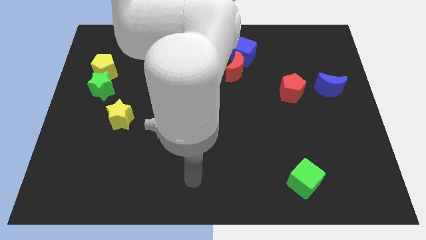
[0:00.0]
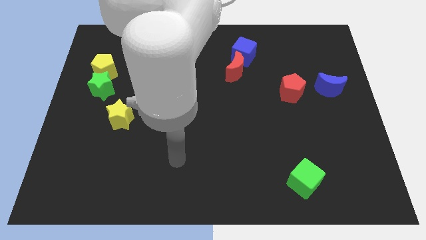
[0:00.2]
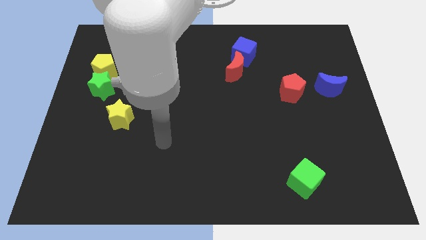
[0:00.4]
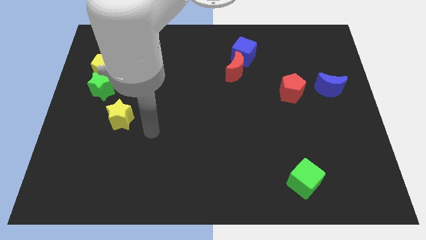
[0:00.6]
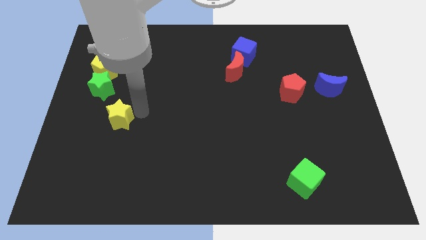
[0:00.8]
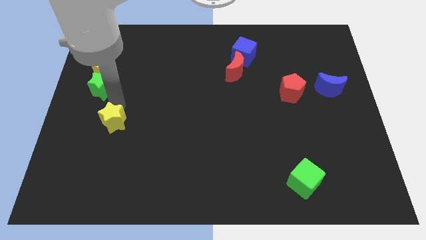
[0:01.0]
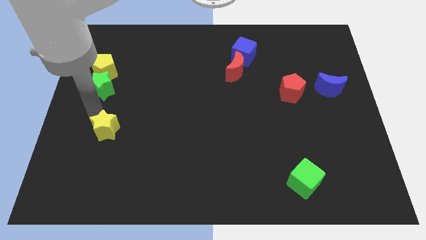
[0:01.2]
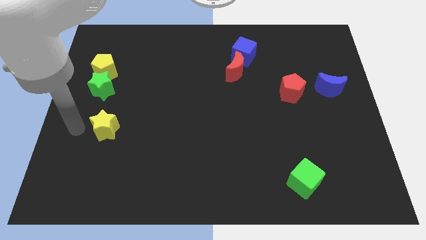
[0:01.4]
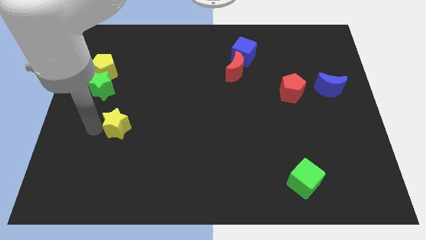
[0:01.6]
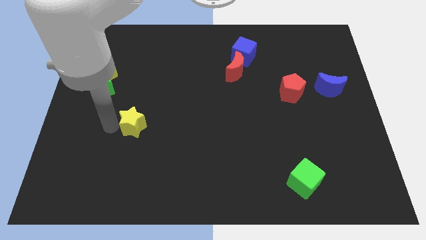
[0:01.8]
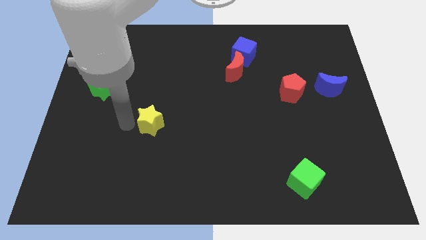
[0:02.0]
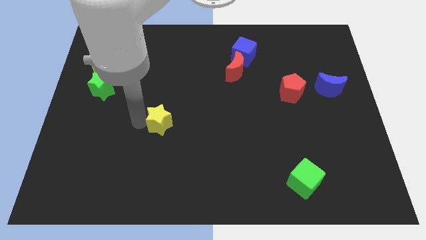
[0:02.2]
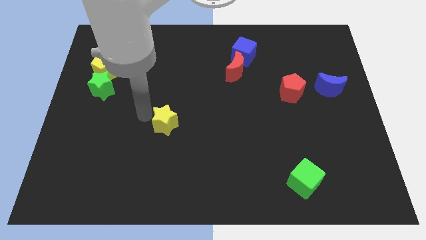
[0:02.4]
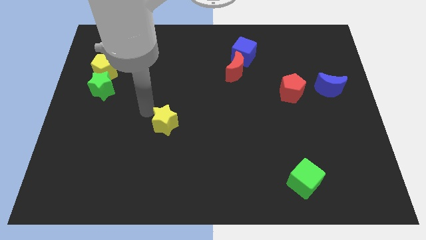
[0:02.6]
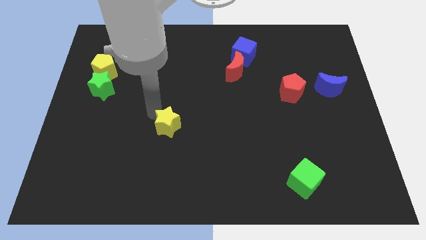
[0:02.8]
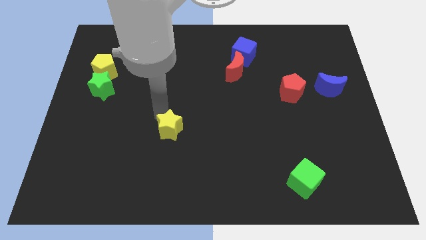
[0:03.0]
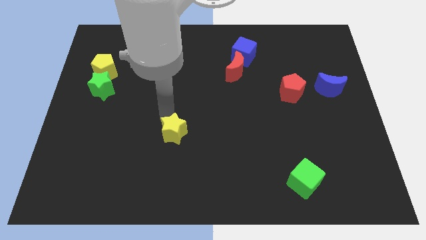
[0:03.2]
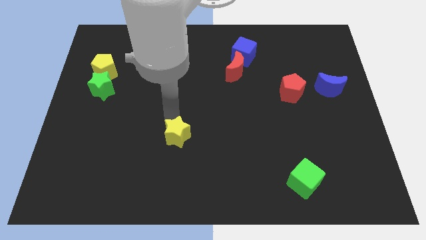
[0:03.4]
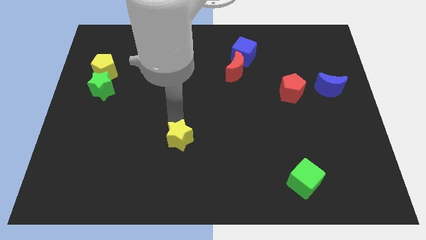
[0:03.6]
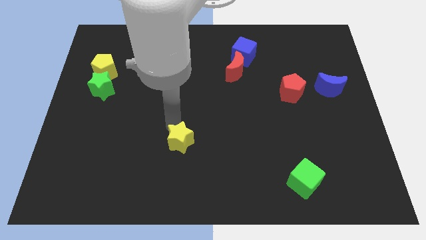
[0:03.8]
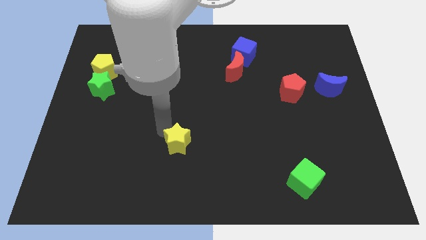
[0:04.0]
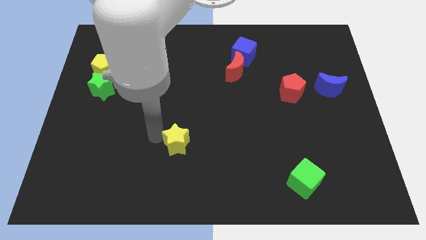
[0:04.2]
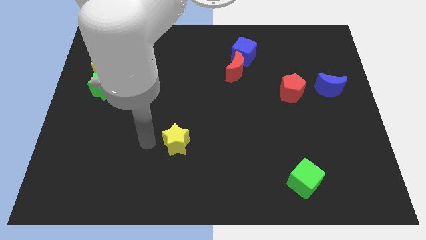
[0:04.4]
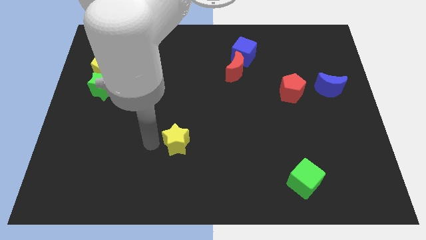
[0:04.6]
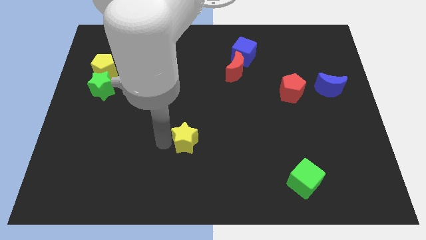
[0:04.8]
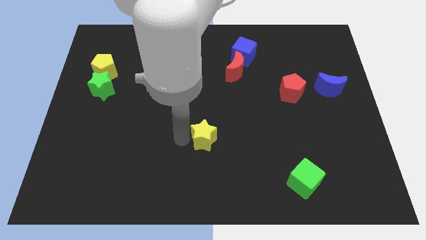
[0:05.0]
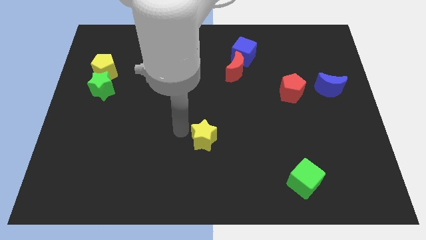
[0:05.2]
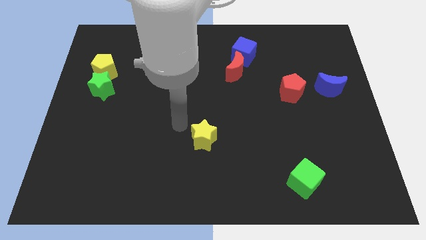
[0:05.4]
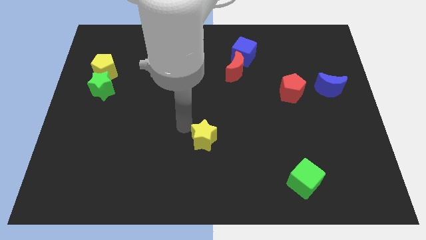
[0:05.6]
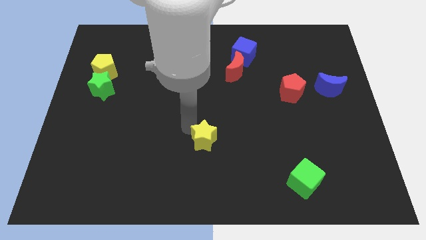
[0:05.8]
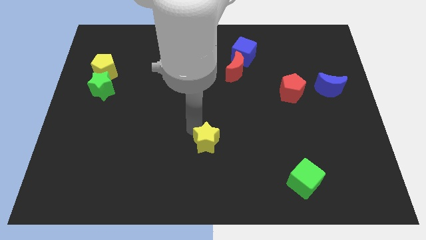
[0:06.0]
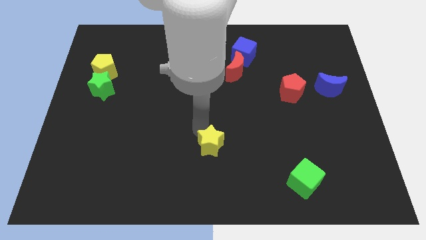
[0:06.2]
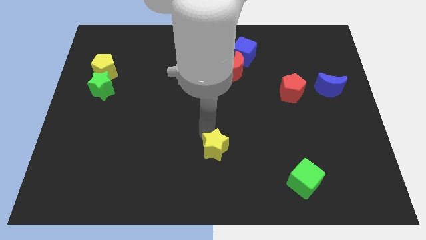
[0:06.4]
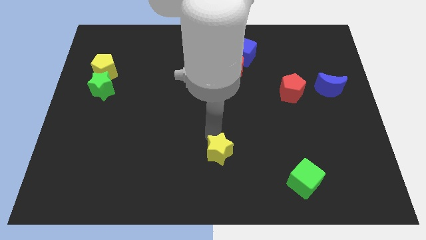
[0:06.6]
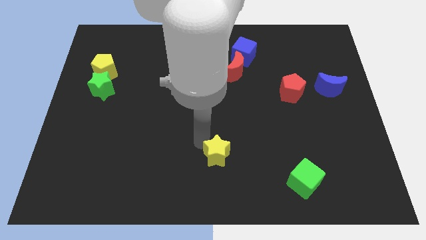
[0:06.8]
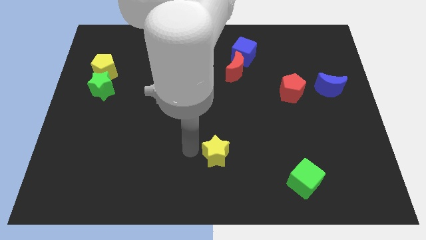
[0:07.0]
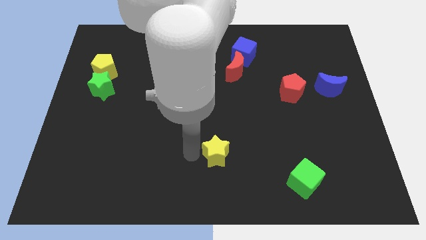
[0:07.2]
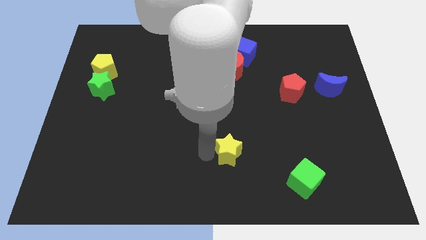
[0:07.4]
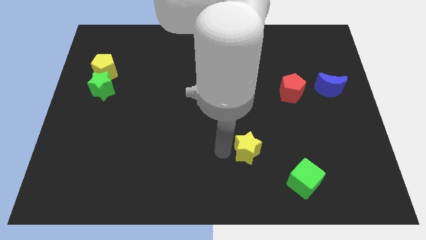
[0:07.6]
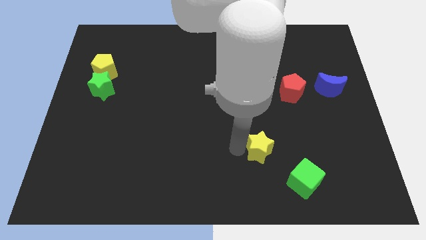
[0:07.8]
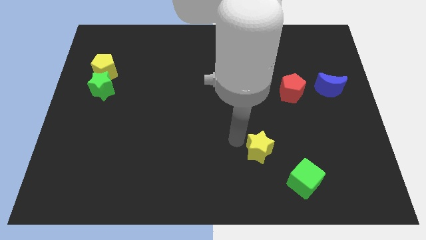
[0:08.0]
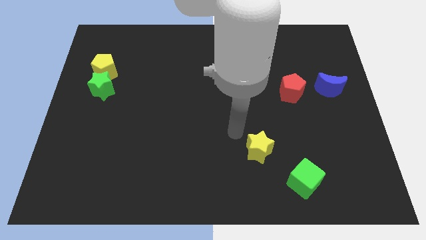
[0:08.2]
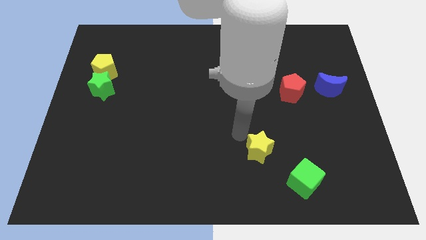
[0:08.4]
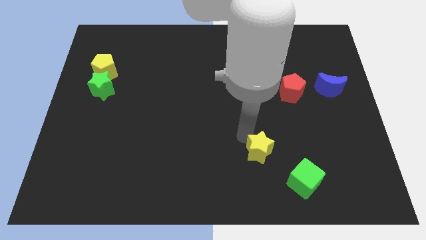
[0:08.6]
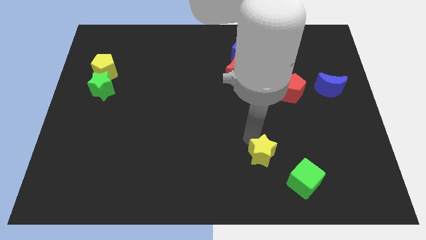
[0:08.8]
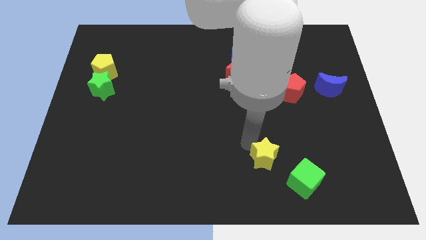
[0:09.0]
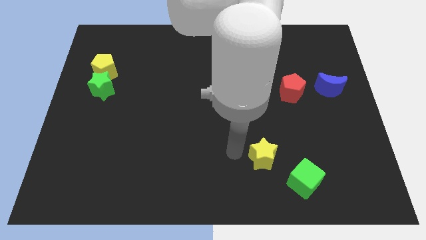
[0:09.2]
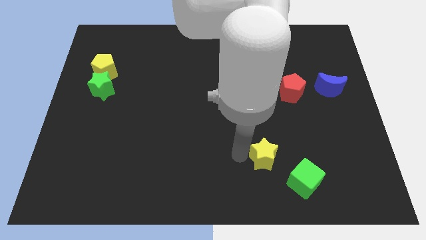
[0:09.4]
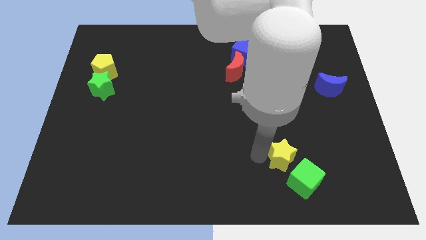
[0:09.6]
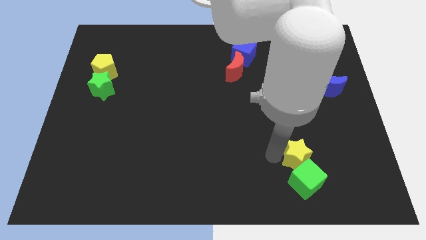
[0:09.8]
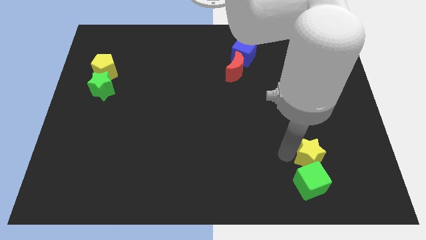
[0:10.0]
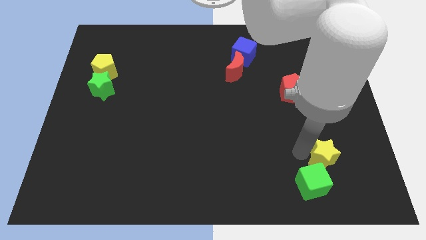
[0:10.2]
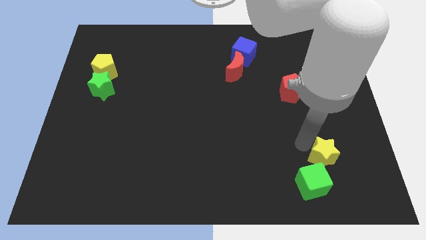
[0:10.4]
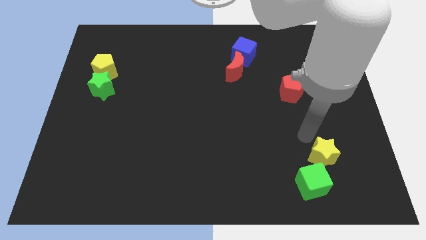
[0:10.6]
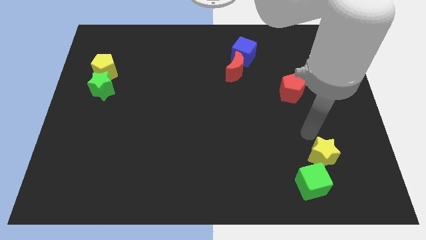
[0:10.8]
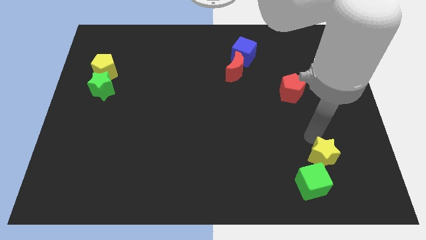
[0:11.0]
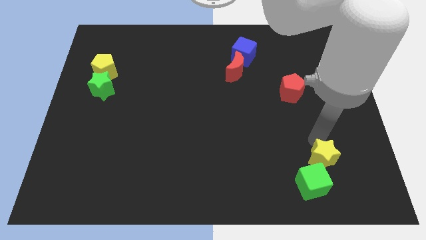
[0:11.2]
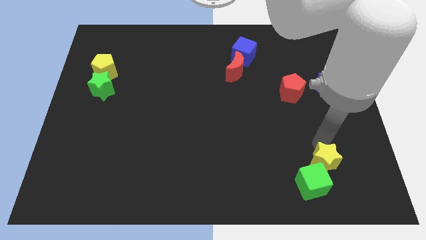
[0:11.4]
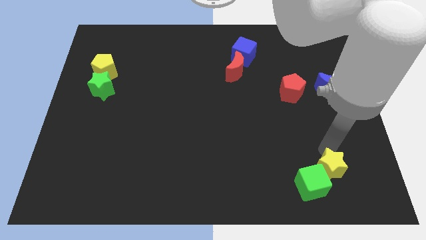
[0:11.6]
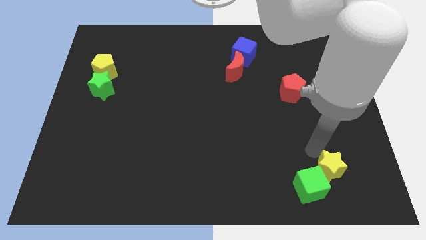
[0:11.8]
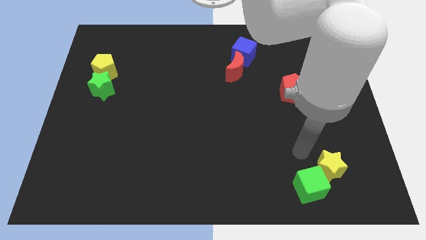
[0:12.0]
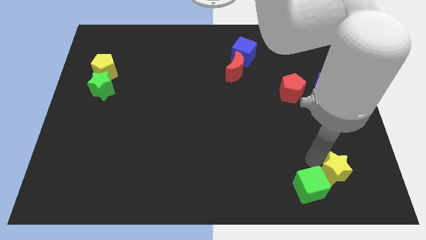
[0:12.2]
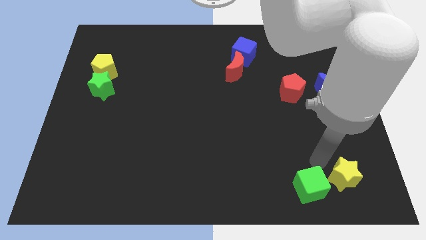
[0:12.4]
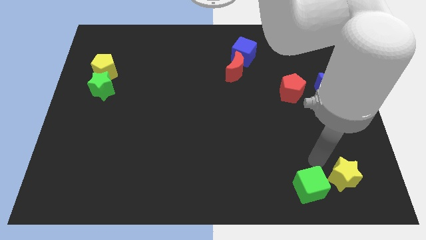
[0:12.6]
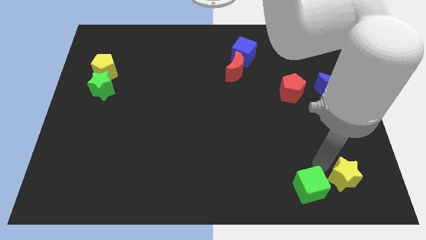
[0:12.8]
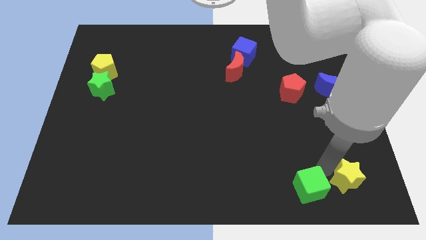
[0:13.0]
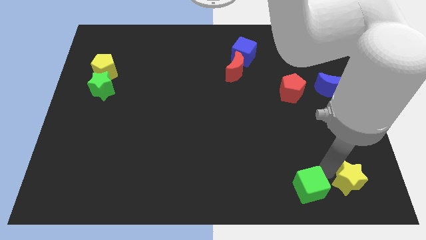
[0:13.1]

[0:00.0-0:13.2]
put the yellow star to the bottom right of the board
